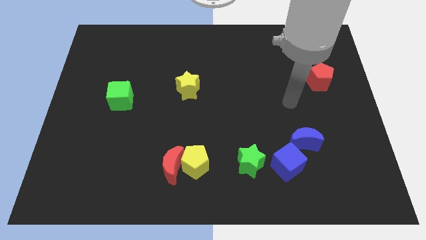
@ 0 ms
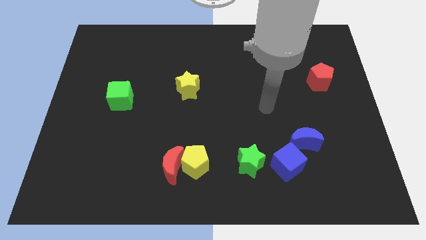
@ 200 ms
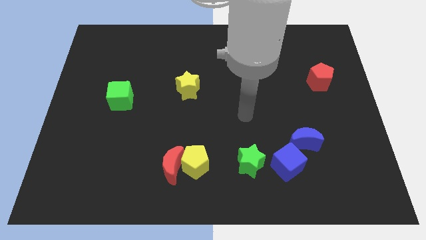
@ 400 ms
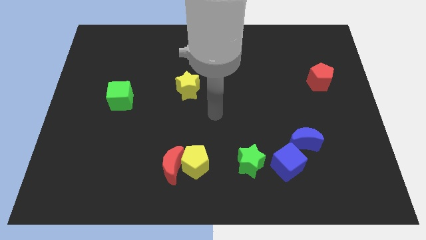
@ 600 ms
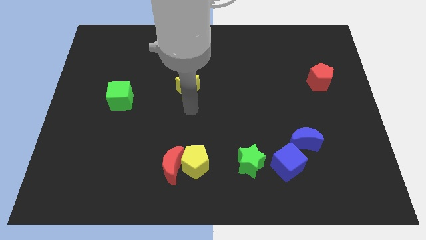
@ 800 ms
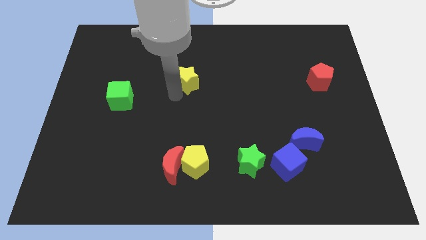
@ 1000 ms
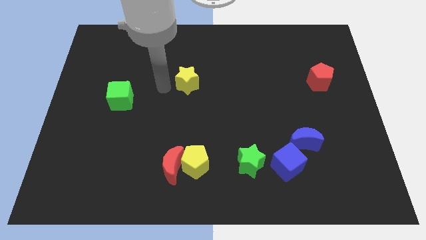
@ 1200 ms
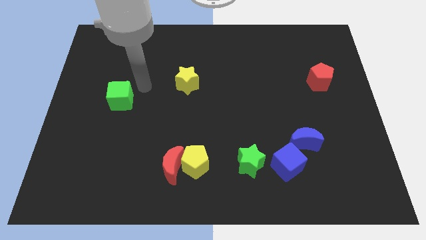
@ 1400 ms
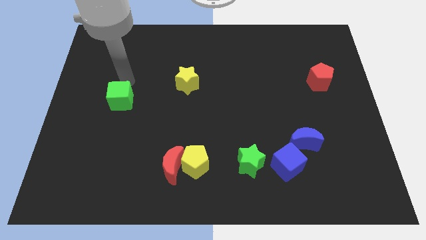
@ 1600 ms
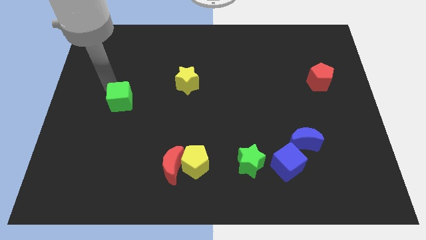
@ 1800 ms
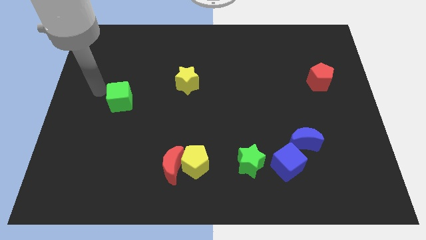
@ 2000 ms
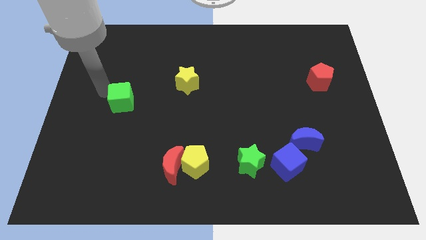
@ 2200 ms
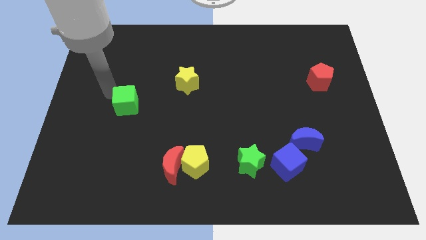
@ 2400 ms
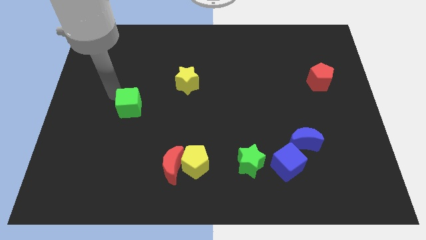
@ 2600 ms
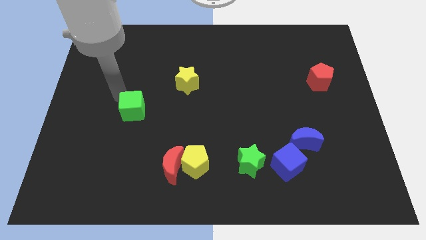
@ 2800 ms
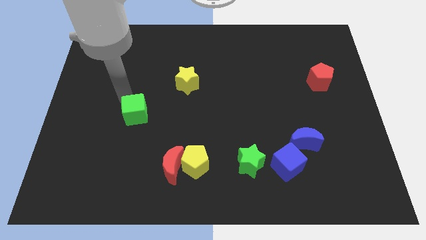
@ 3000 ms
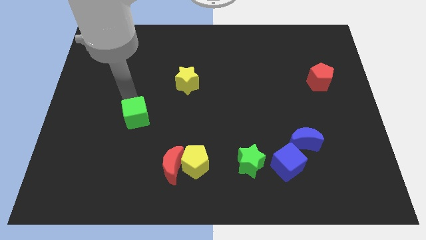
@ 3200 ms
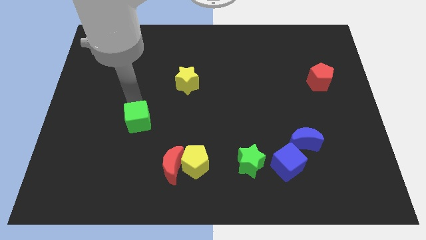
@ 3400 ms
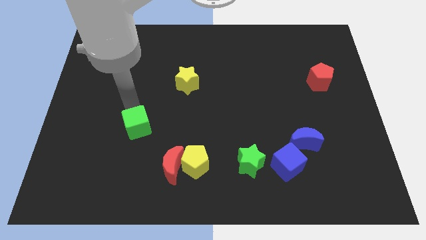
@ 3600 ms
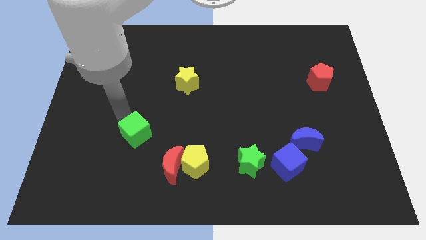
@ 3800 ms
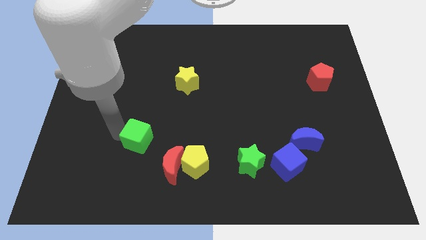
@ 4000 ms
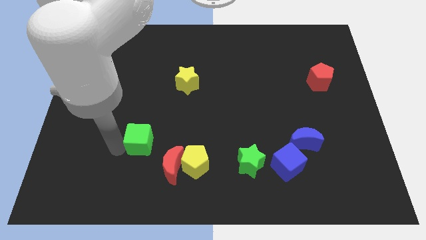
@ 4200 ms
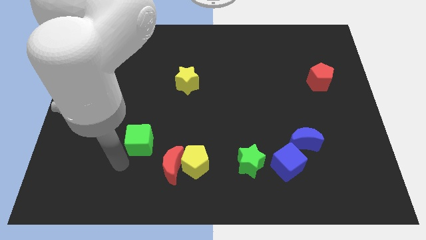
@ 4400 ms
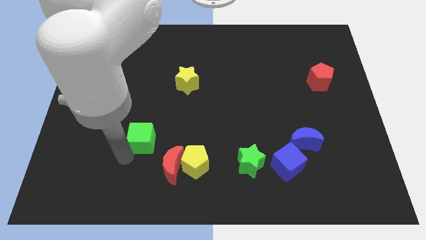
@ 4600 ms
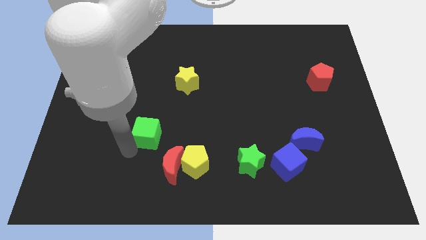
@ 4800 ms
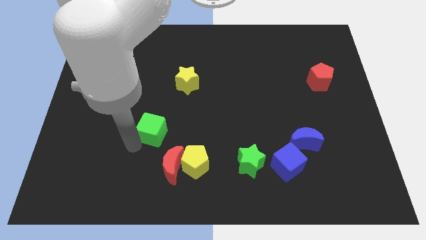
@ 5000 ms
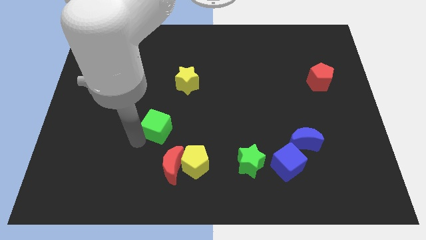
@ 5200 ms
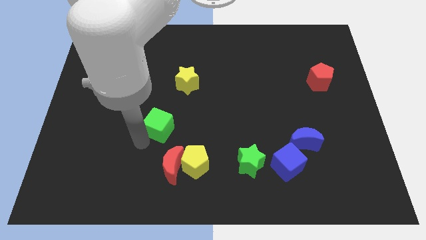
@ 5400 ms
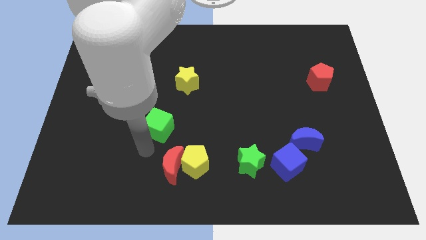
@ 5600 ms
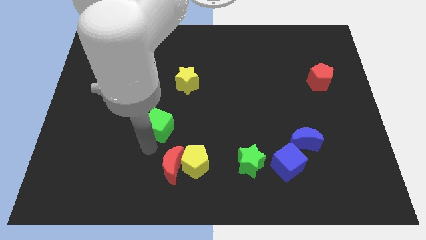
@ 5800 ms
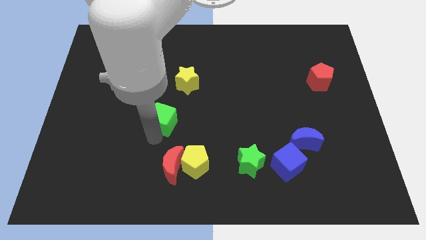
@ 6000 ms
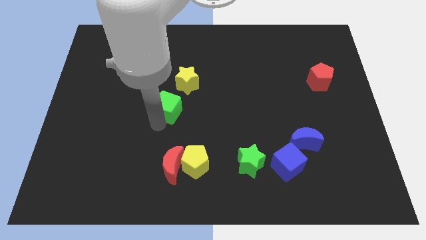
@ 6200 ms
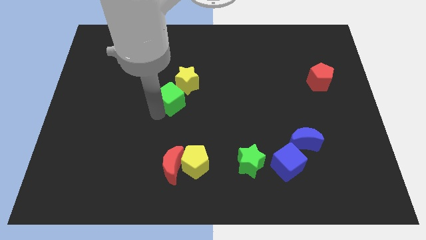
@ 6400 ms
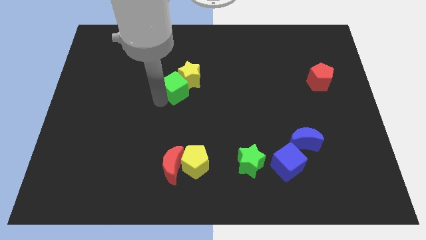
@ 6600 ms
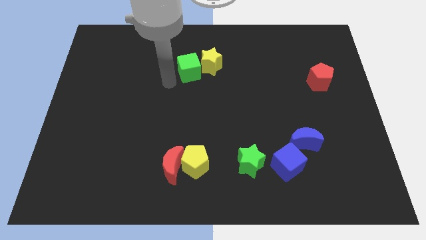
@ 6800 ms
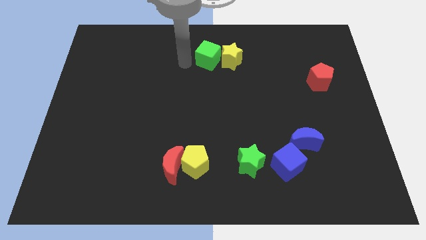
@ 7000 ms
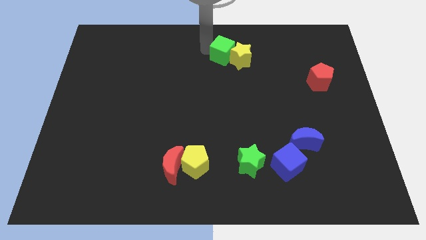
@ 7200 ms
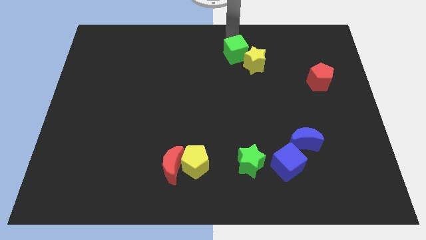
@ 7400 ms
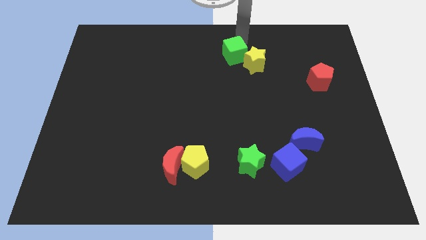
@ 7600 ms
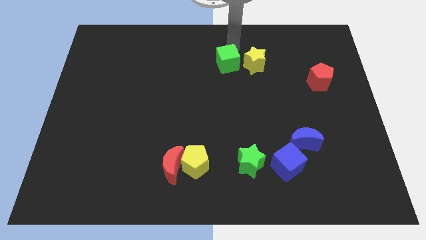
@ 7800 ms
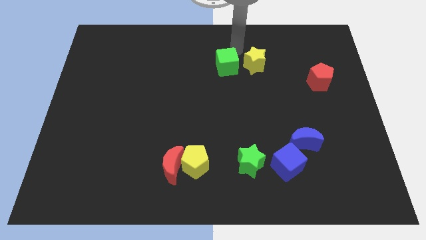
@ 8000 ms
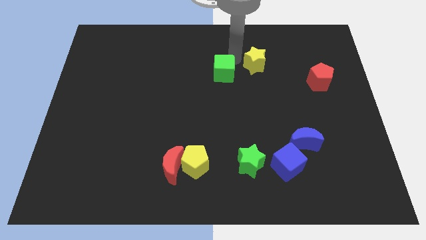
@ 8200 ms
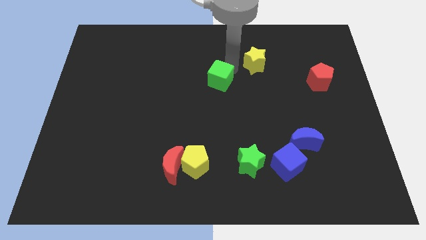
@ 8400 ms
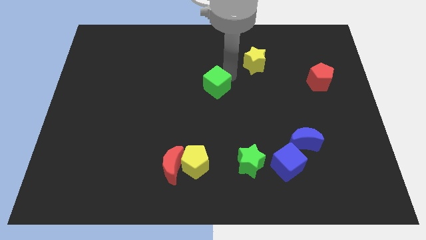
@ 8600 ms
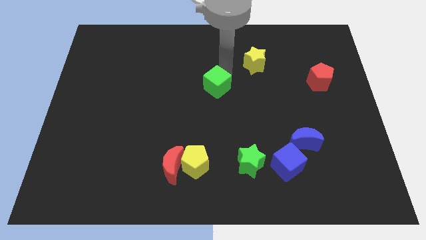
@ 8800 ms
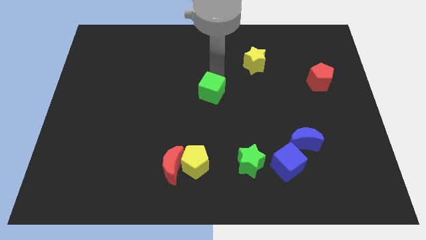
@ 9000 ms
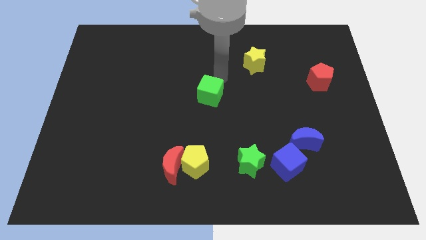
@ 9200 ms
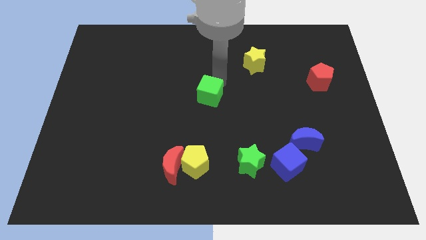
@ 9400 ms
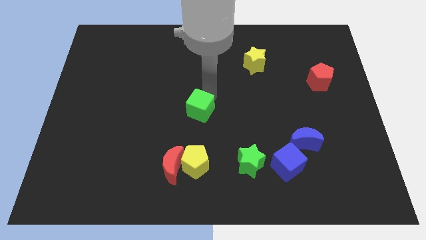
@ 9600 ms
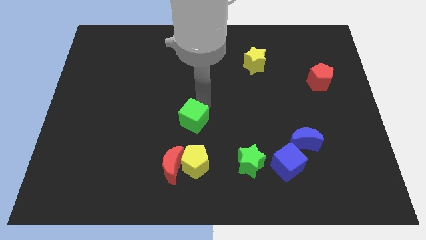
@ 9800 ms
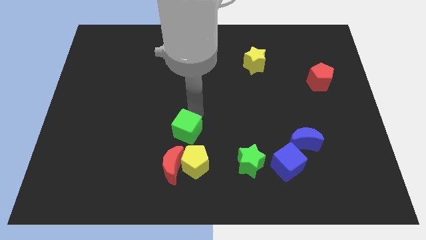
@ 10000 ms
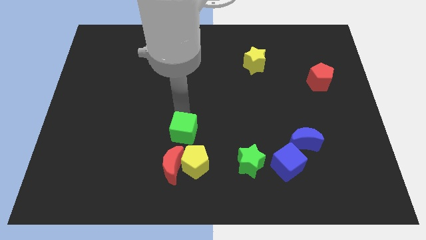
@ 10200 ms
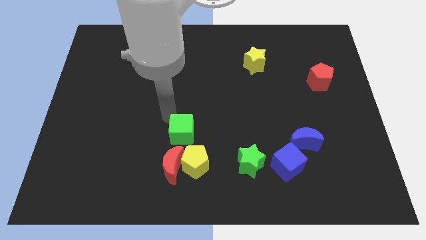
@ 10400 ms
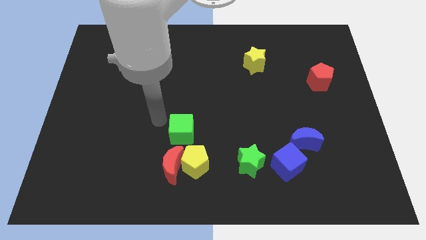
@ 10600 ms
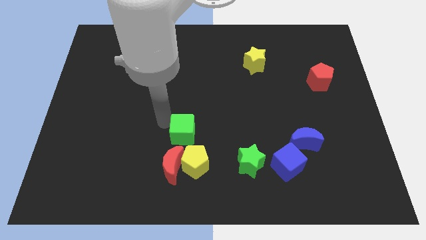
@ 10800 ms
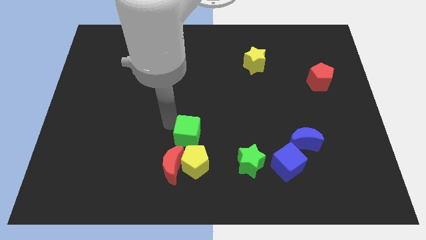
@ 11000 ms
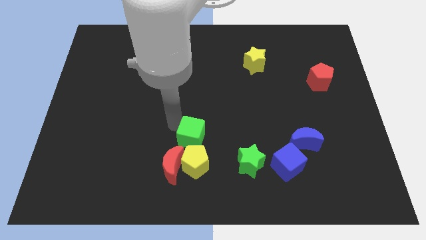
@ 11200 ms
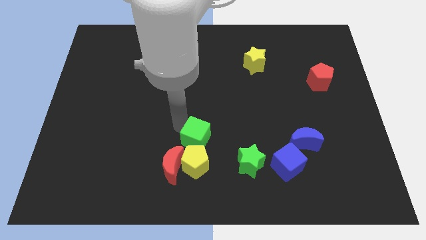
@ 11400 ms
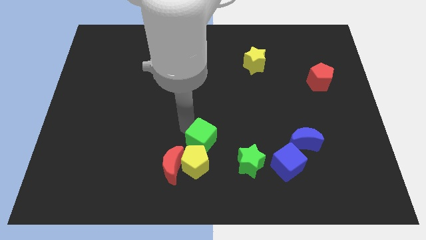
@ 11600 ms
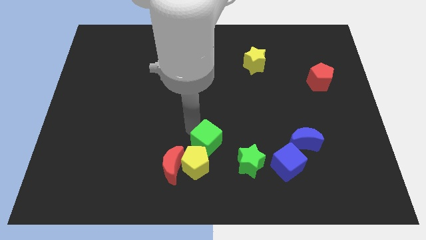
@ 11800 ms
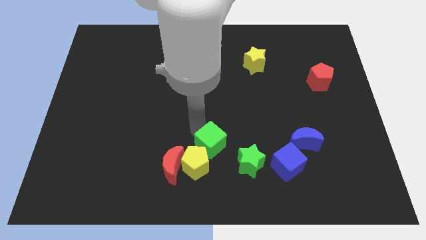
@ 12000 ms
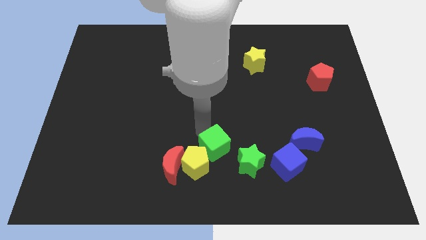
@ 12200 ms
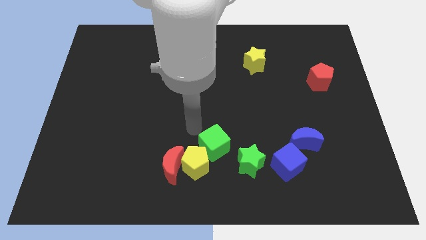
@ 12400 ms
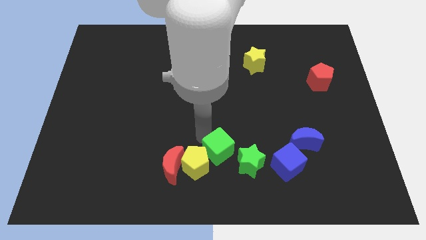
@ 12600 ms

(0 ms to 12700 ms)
push the green cube left of the blue cube

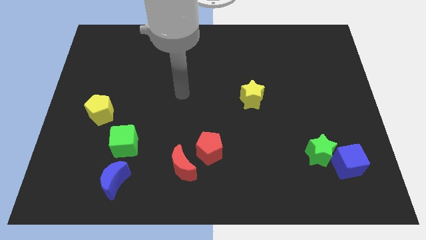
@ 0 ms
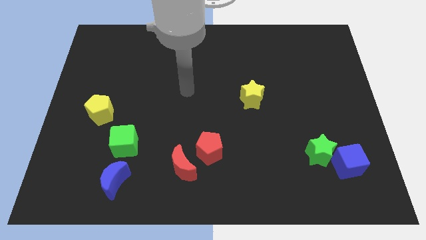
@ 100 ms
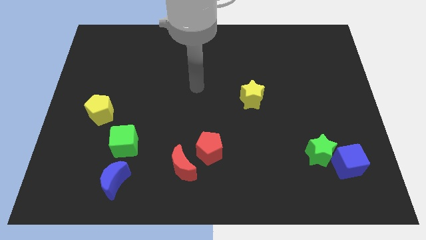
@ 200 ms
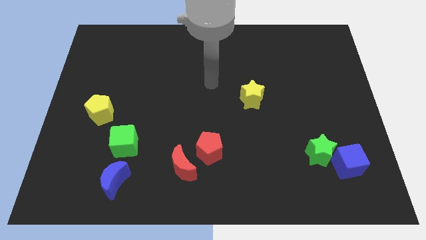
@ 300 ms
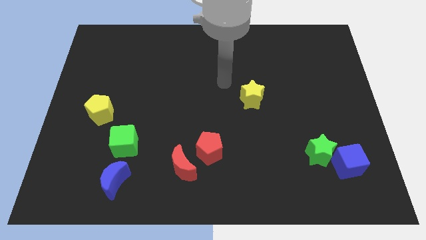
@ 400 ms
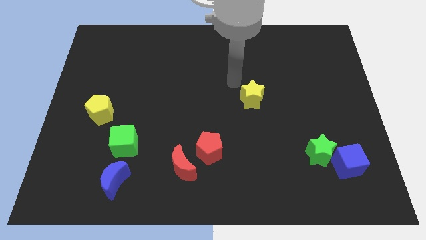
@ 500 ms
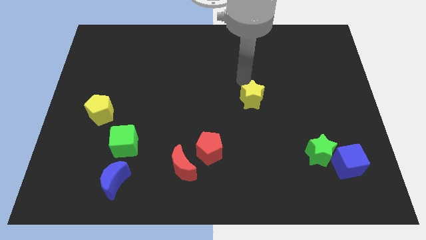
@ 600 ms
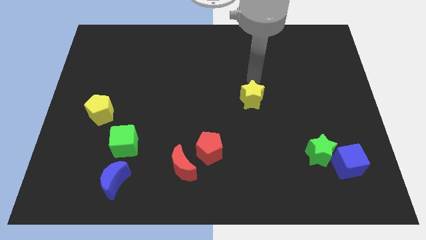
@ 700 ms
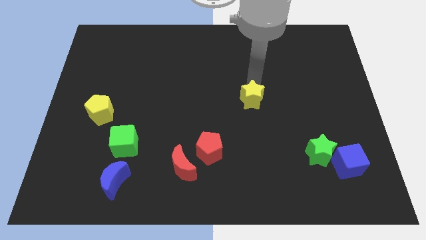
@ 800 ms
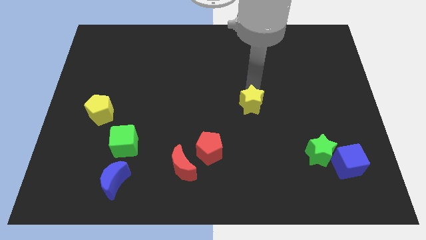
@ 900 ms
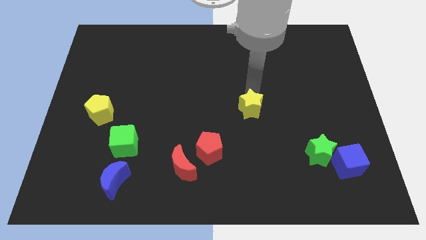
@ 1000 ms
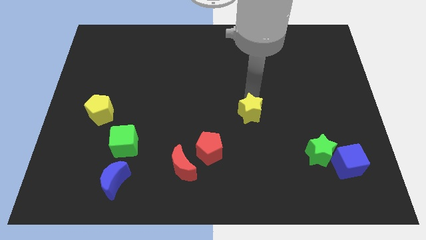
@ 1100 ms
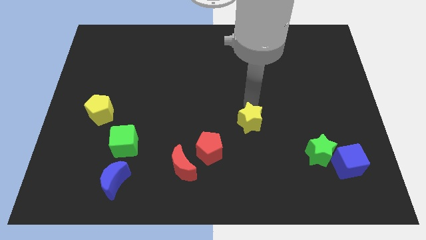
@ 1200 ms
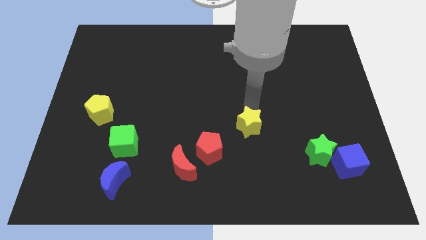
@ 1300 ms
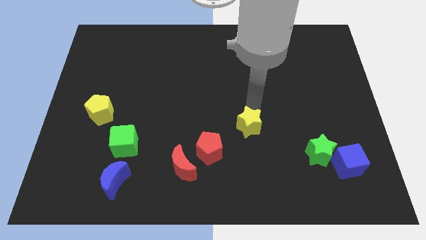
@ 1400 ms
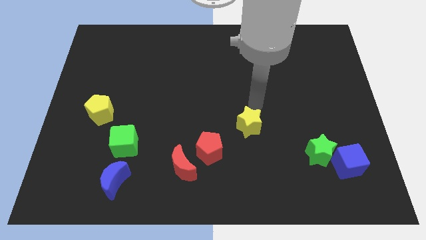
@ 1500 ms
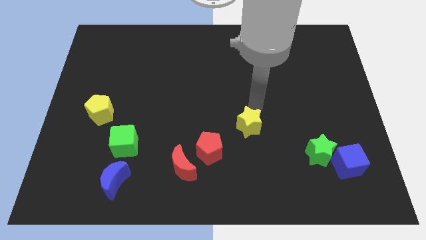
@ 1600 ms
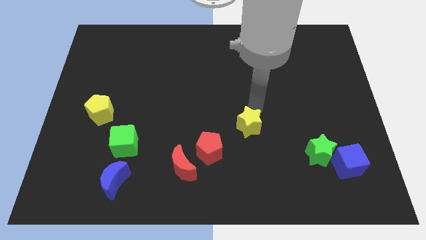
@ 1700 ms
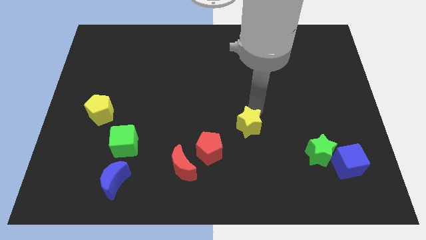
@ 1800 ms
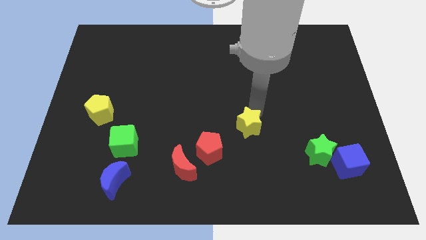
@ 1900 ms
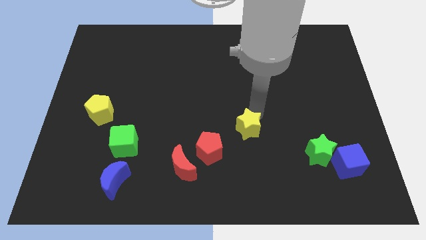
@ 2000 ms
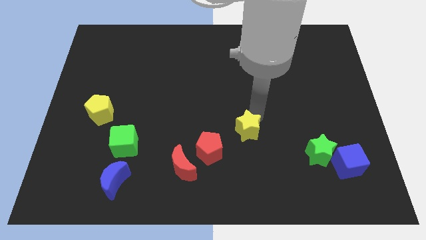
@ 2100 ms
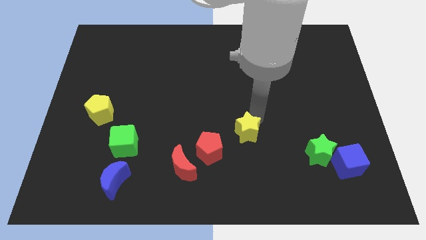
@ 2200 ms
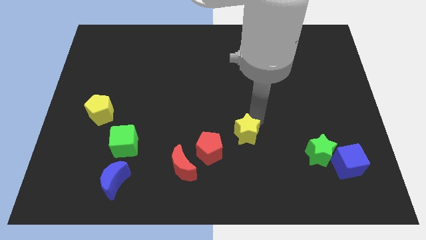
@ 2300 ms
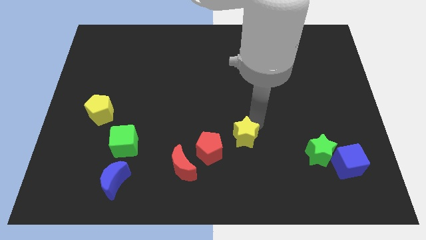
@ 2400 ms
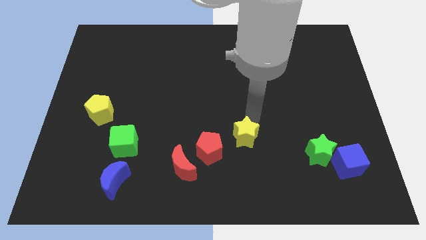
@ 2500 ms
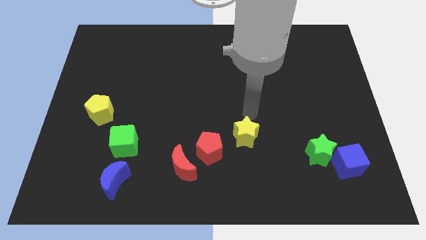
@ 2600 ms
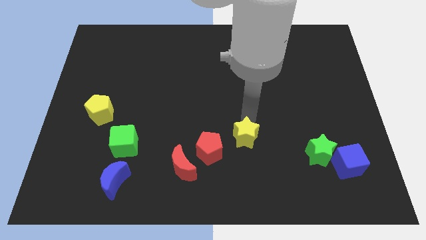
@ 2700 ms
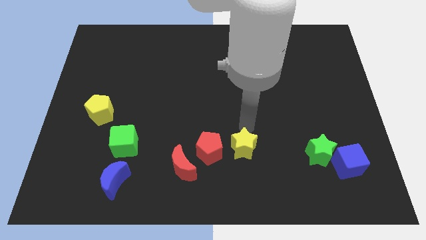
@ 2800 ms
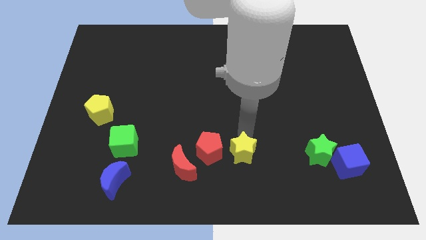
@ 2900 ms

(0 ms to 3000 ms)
slide the yellow star to the bottom right side of the red pentagon
